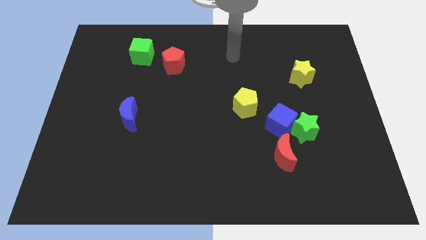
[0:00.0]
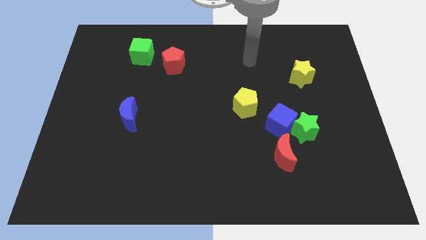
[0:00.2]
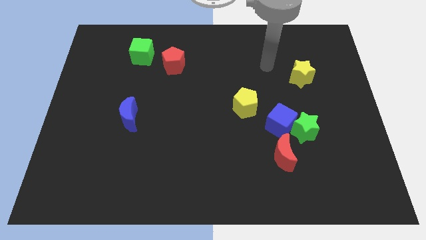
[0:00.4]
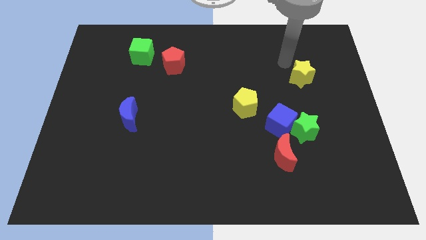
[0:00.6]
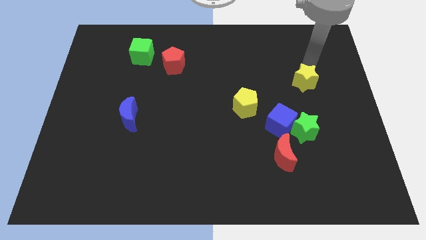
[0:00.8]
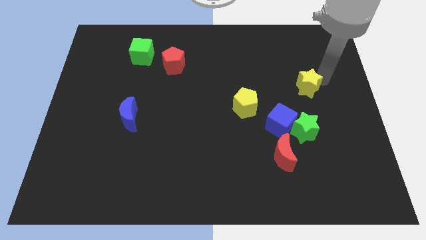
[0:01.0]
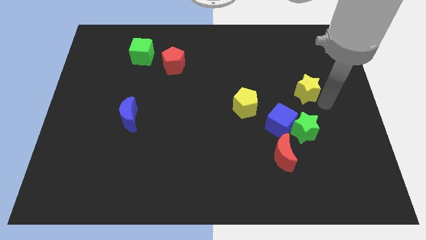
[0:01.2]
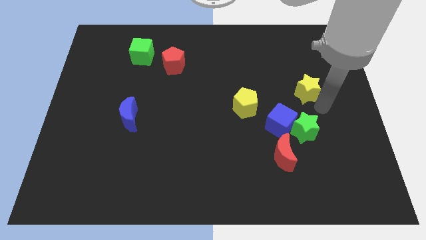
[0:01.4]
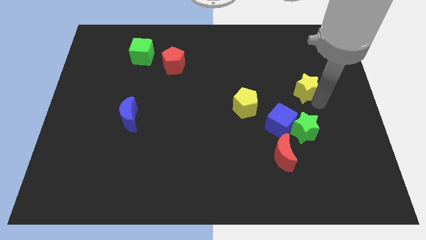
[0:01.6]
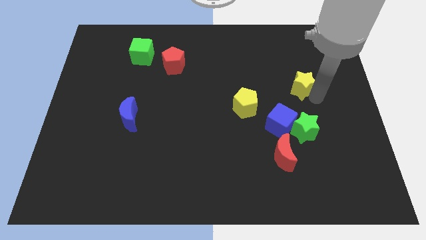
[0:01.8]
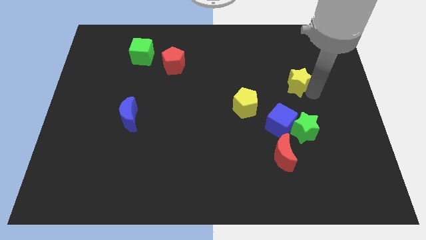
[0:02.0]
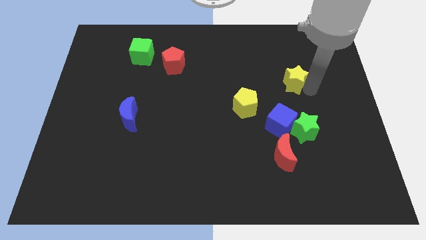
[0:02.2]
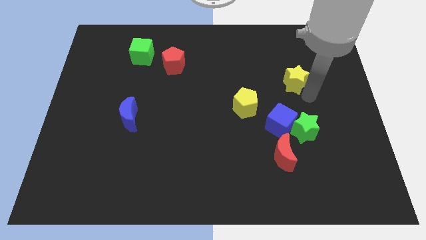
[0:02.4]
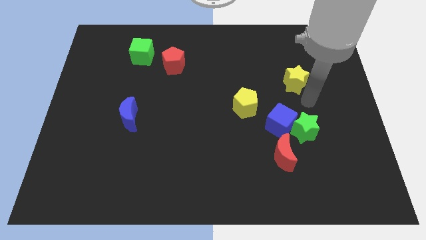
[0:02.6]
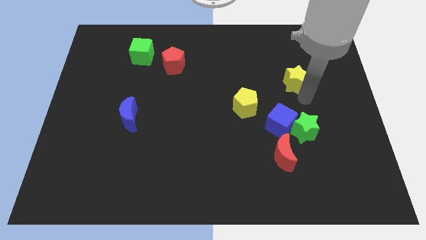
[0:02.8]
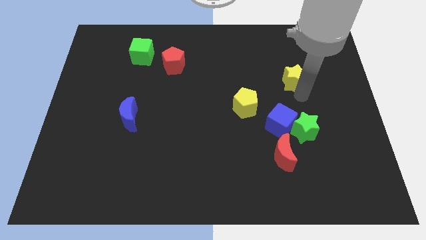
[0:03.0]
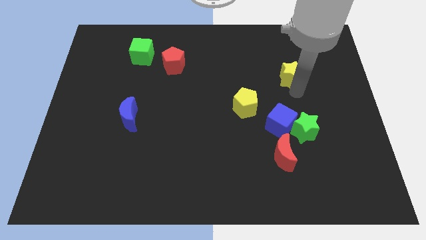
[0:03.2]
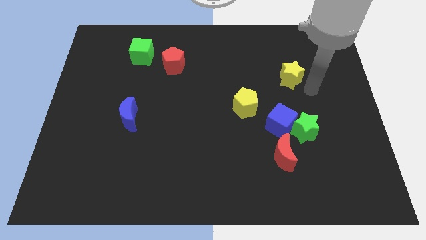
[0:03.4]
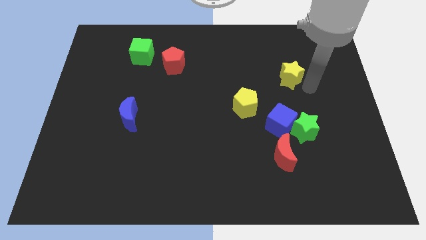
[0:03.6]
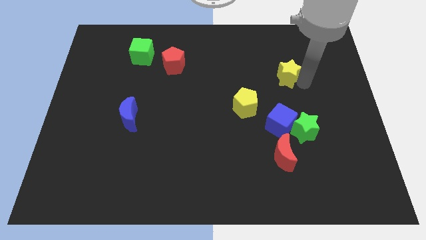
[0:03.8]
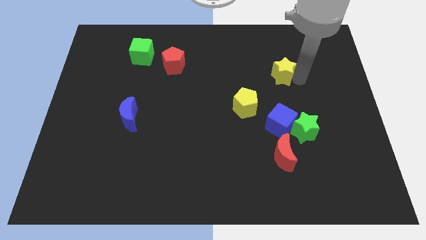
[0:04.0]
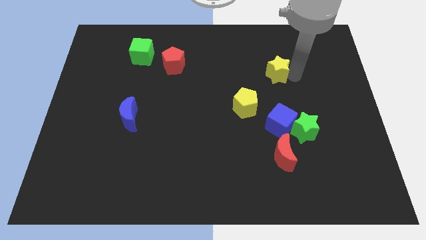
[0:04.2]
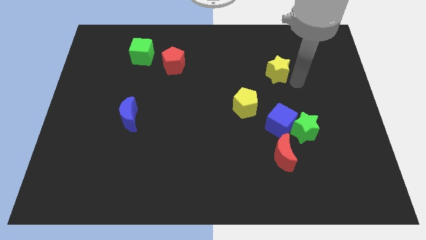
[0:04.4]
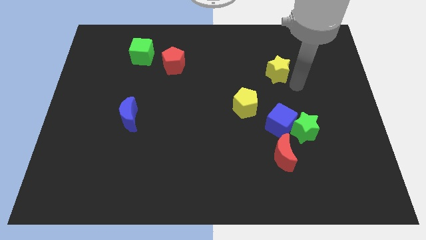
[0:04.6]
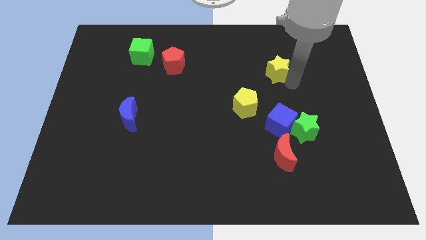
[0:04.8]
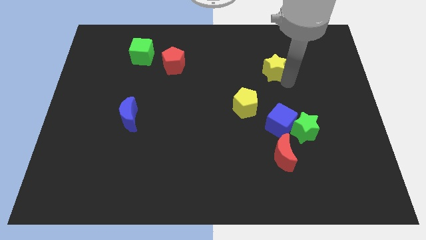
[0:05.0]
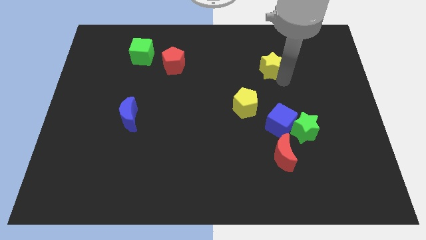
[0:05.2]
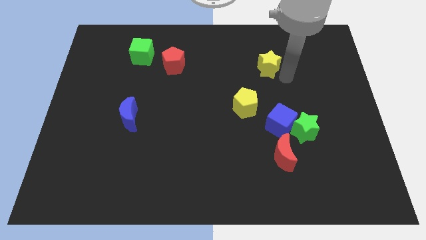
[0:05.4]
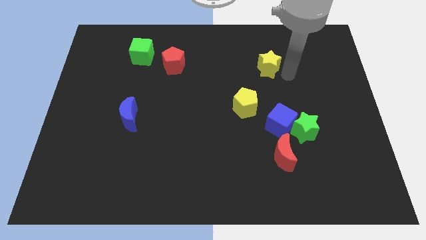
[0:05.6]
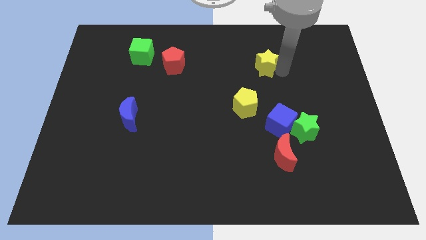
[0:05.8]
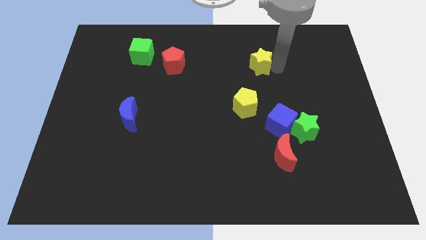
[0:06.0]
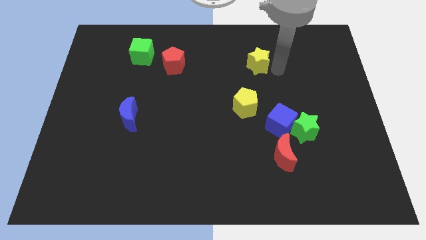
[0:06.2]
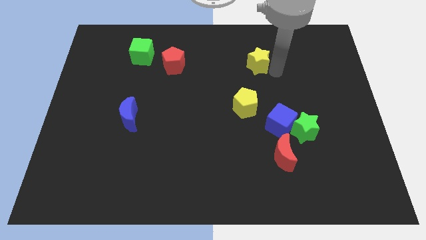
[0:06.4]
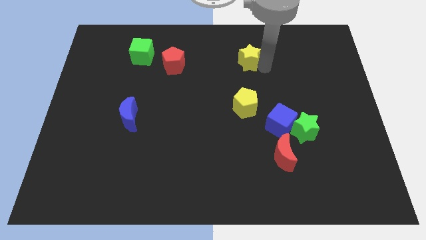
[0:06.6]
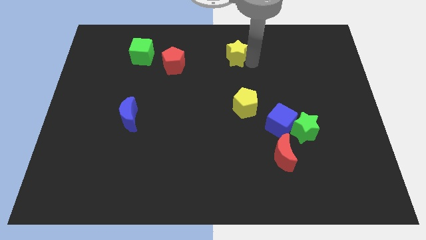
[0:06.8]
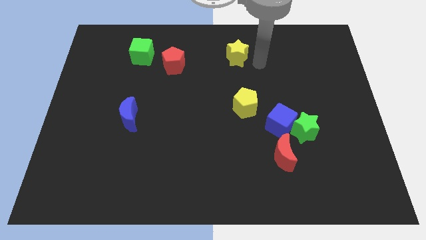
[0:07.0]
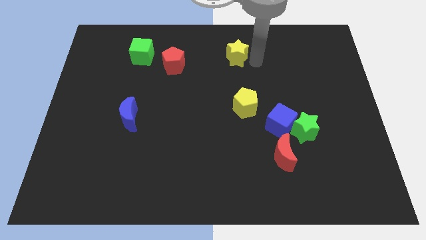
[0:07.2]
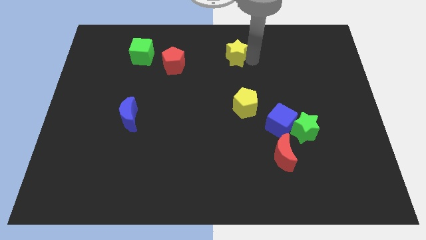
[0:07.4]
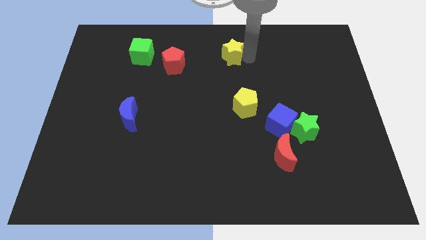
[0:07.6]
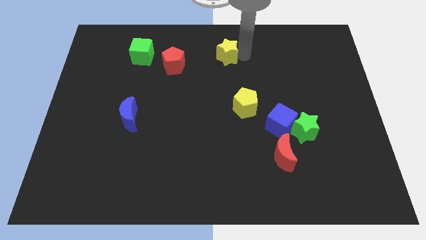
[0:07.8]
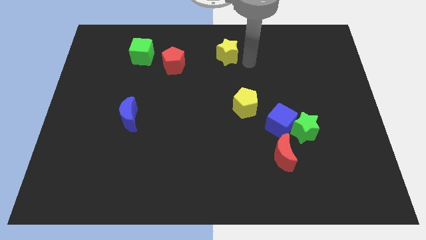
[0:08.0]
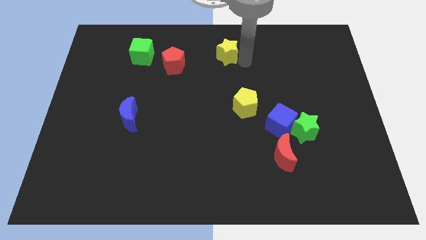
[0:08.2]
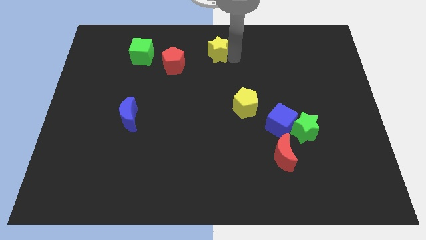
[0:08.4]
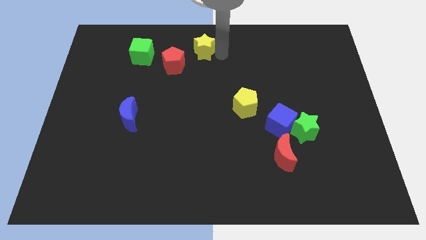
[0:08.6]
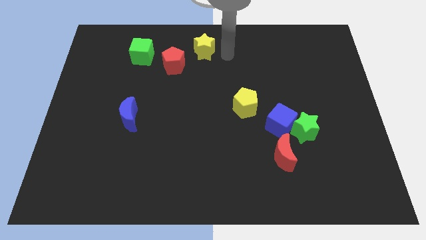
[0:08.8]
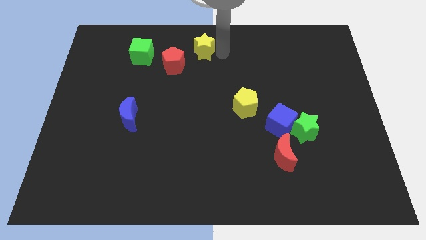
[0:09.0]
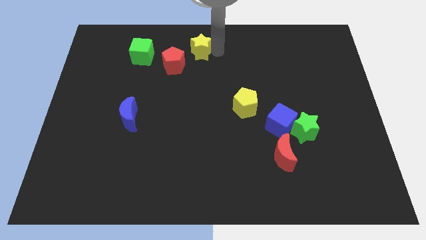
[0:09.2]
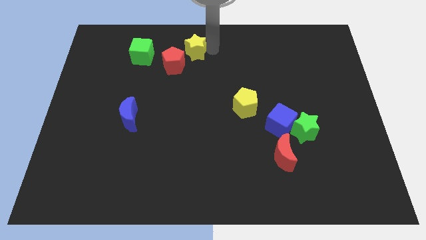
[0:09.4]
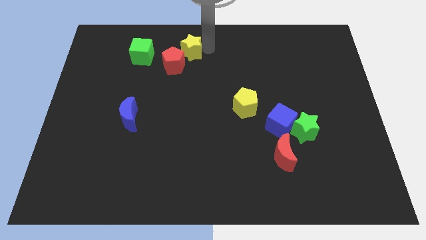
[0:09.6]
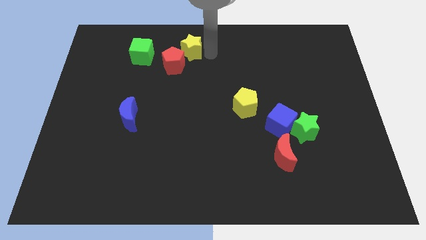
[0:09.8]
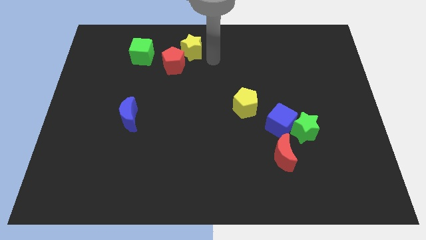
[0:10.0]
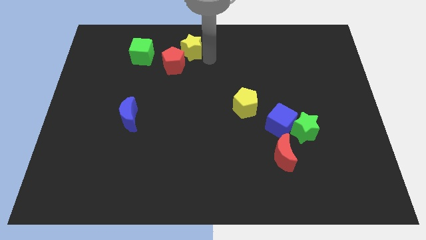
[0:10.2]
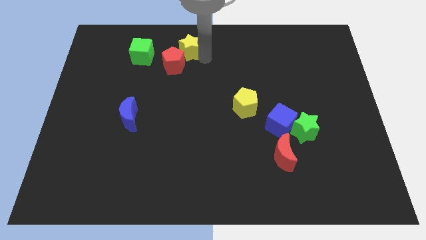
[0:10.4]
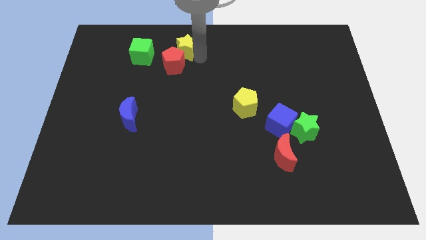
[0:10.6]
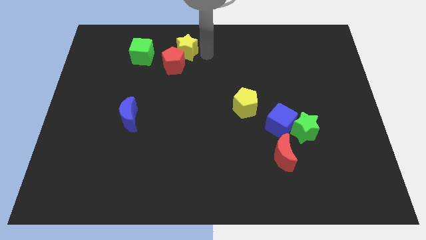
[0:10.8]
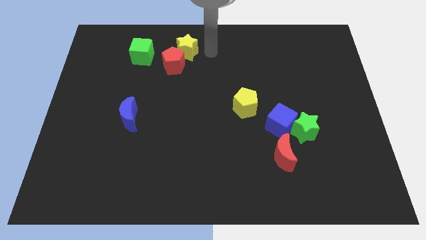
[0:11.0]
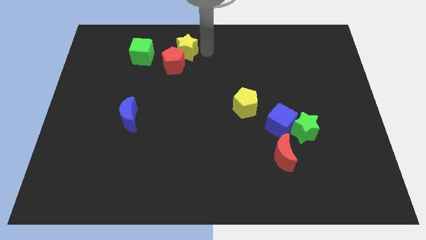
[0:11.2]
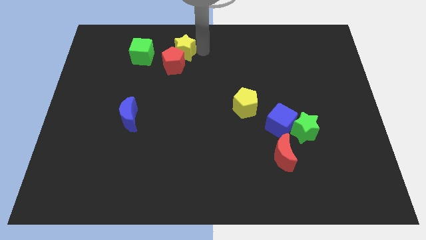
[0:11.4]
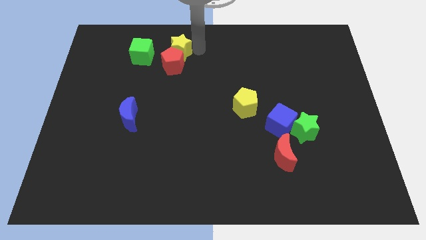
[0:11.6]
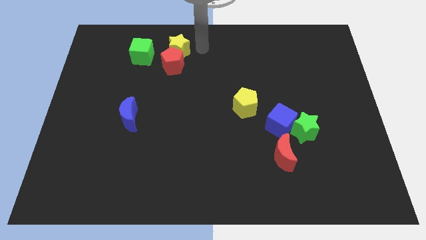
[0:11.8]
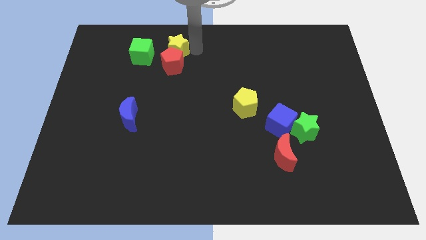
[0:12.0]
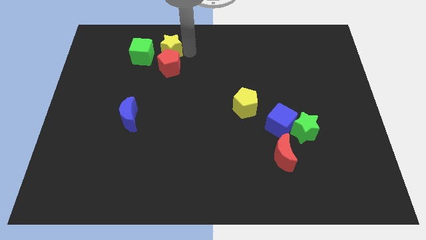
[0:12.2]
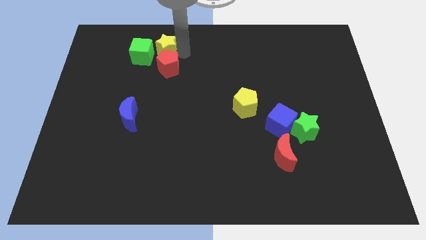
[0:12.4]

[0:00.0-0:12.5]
put the yellow star to the green cube

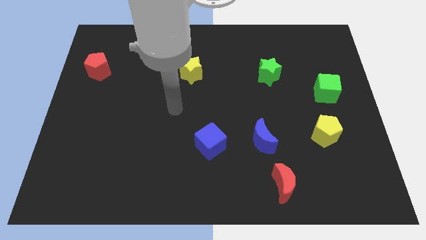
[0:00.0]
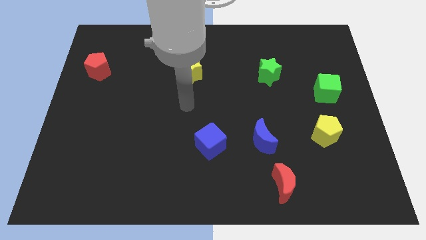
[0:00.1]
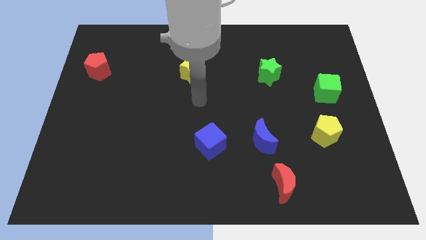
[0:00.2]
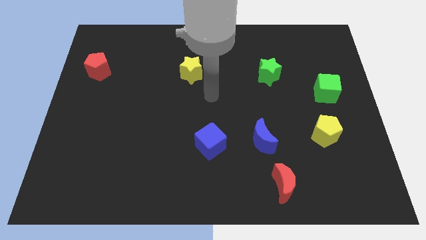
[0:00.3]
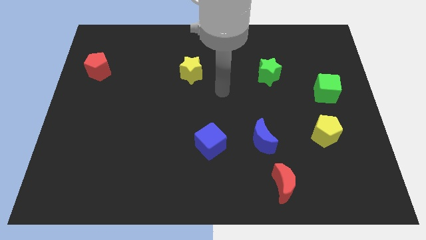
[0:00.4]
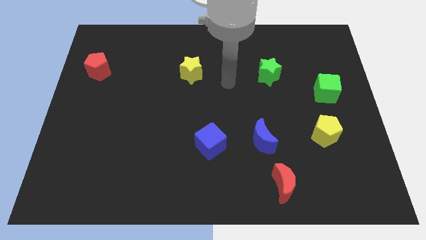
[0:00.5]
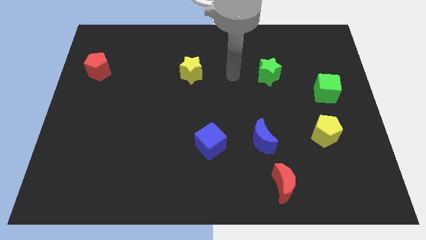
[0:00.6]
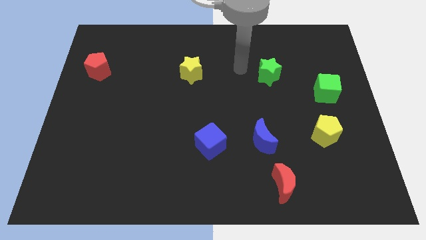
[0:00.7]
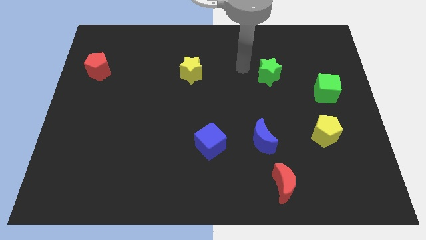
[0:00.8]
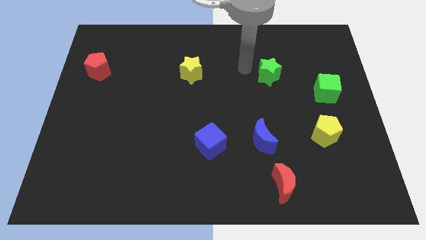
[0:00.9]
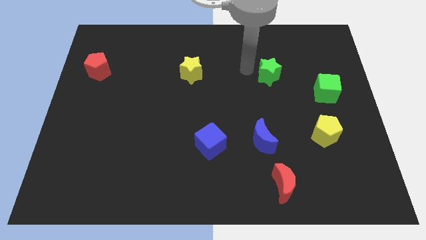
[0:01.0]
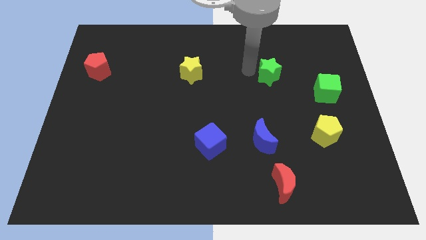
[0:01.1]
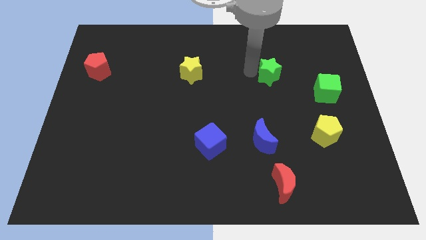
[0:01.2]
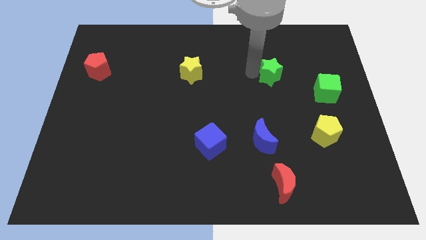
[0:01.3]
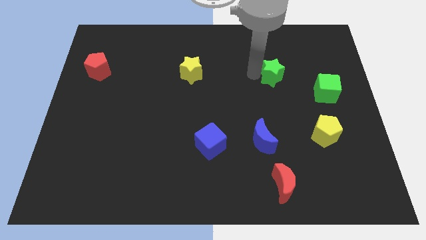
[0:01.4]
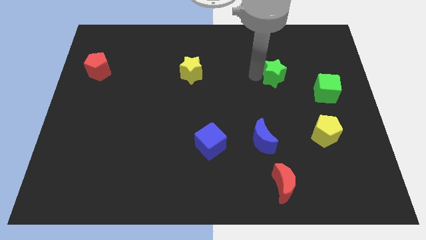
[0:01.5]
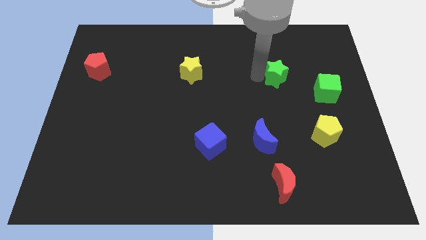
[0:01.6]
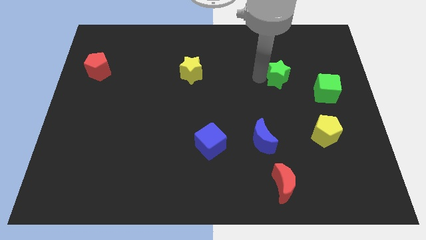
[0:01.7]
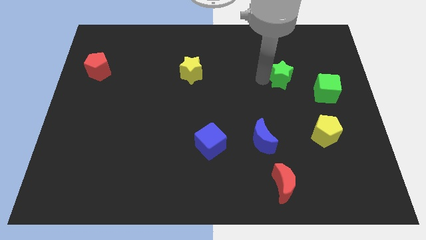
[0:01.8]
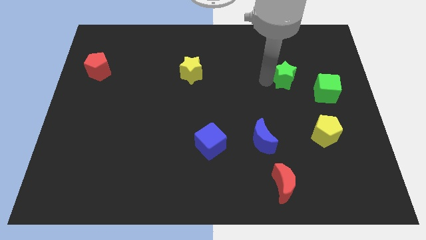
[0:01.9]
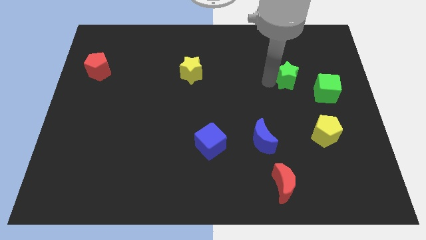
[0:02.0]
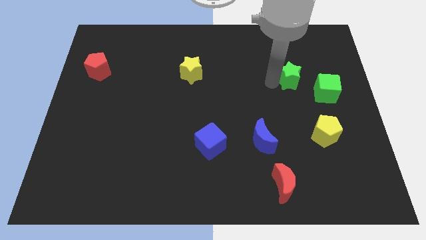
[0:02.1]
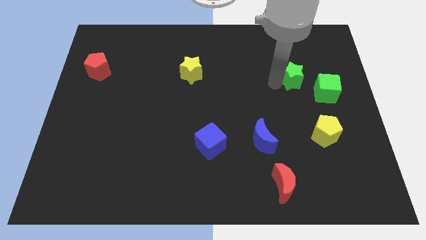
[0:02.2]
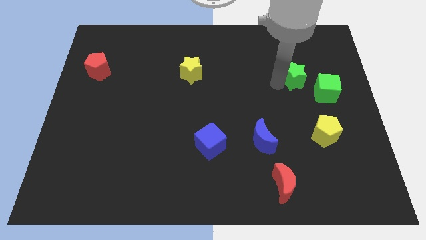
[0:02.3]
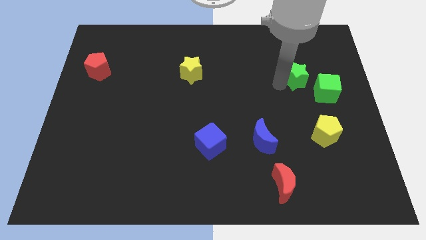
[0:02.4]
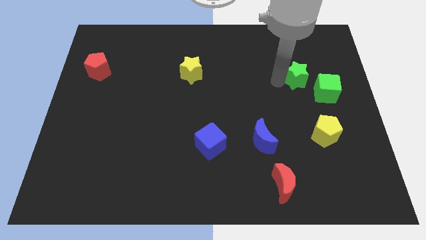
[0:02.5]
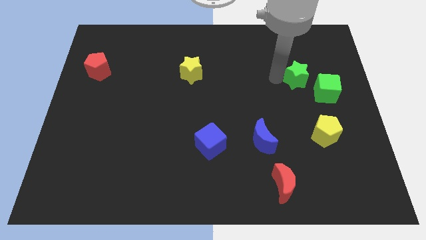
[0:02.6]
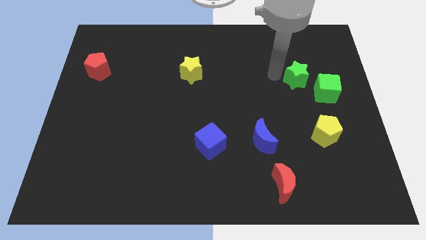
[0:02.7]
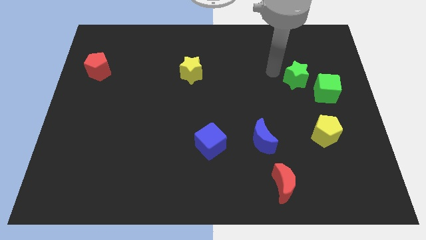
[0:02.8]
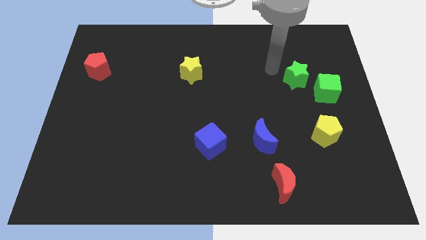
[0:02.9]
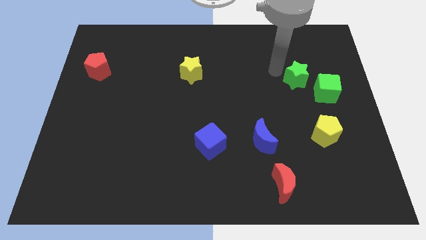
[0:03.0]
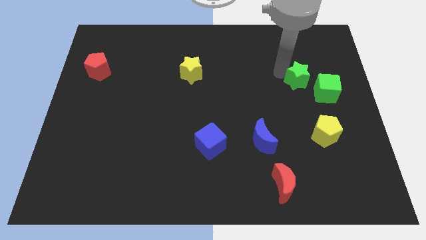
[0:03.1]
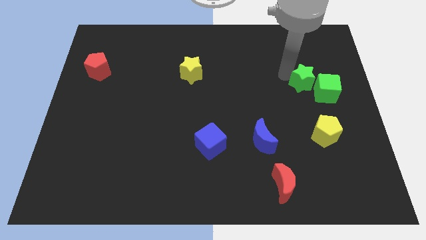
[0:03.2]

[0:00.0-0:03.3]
move the green star towards the green cube
